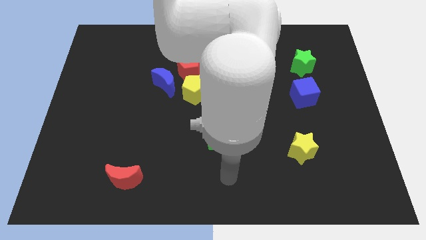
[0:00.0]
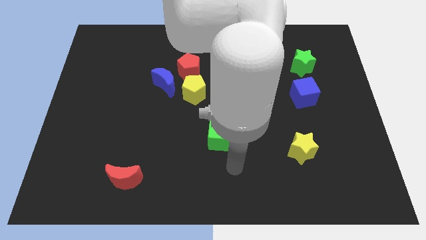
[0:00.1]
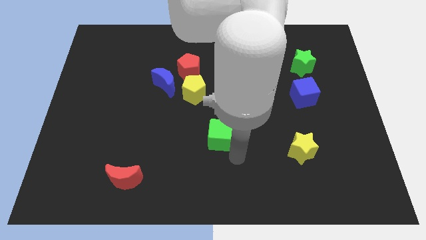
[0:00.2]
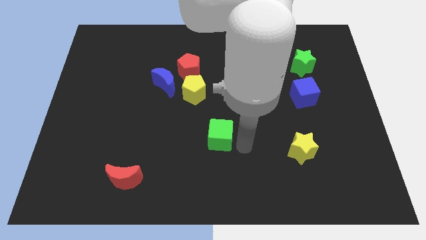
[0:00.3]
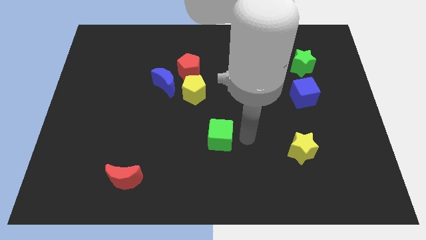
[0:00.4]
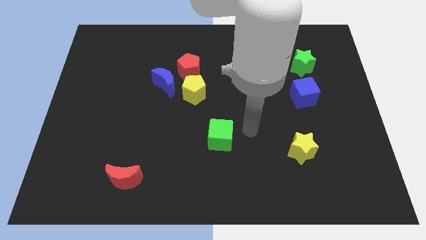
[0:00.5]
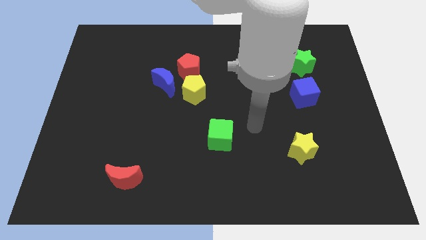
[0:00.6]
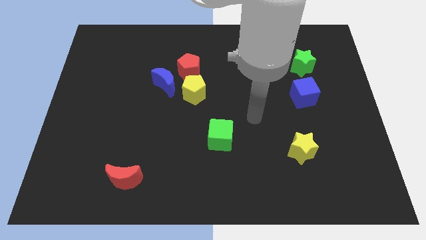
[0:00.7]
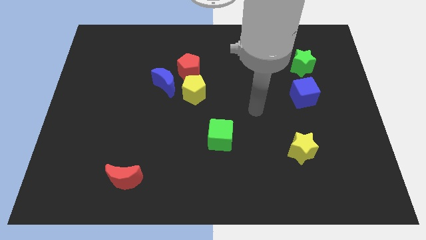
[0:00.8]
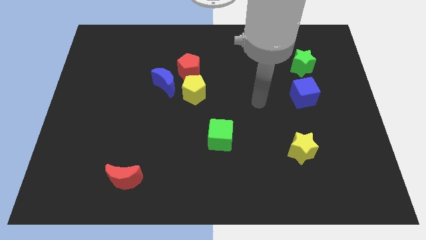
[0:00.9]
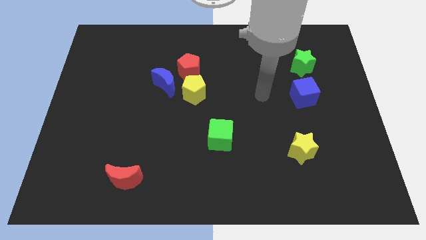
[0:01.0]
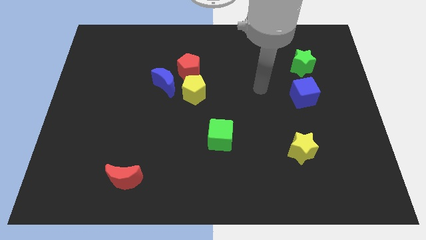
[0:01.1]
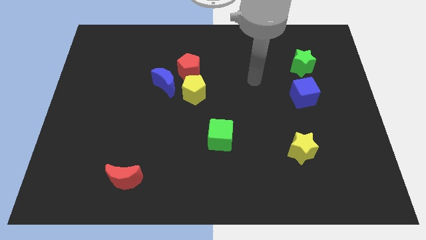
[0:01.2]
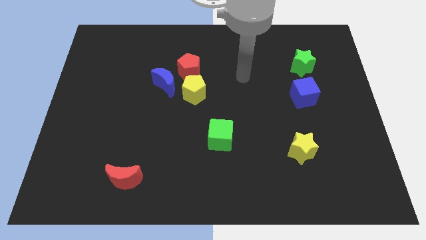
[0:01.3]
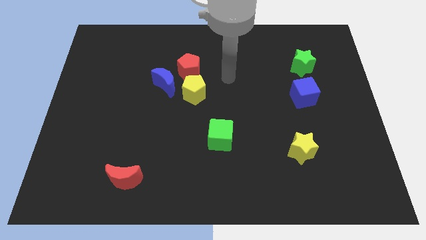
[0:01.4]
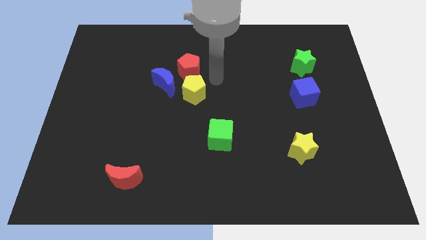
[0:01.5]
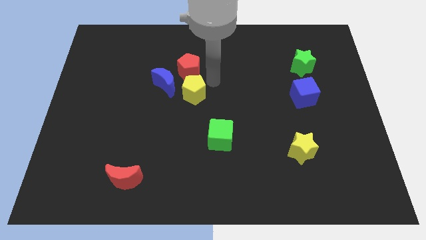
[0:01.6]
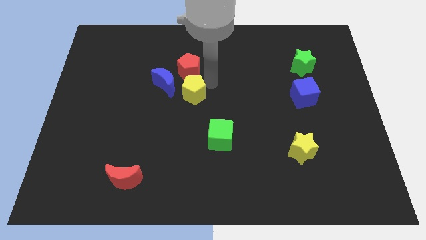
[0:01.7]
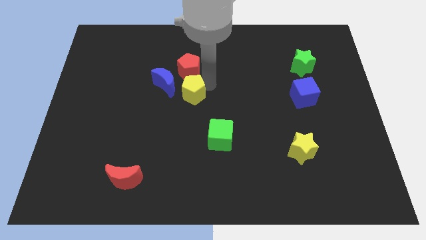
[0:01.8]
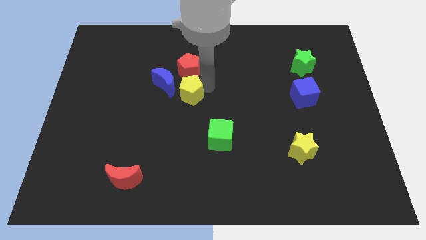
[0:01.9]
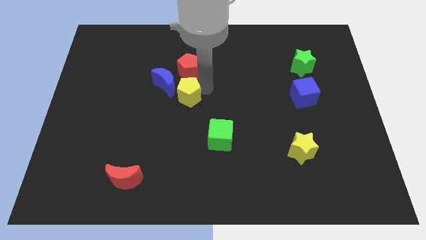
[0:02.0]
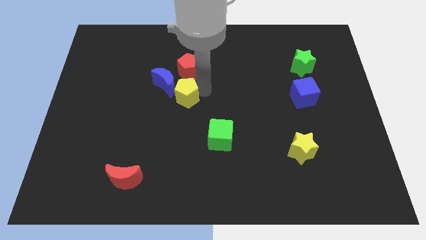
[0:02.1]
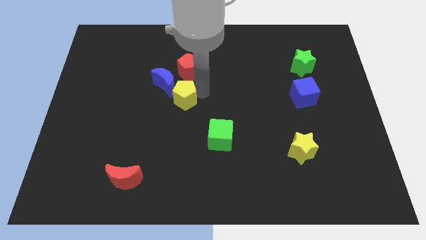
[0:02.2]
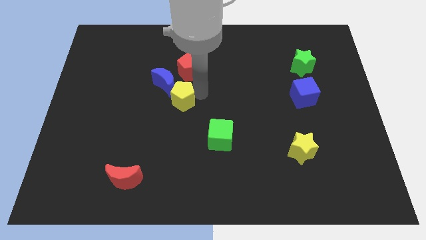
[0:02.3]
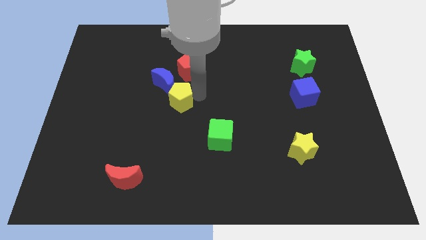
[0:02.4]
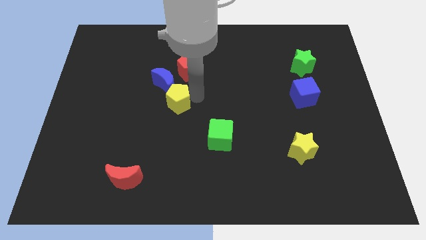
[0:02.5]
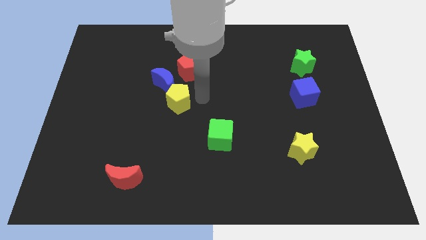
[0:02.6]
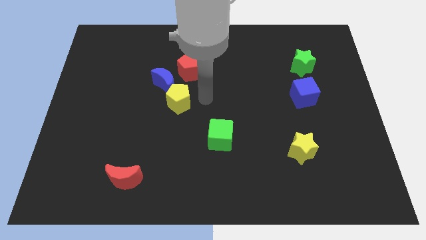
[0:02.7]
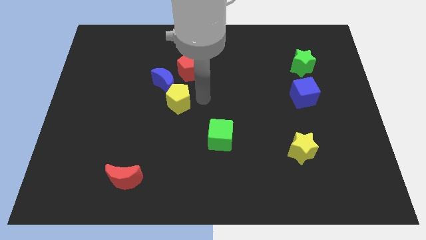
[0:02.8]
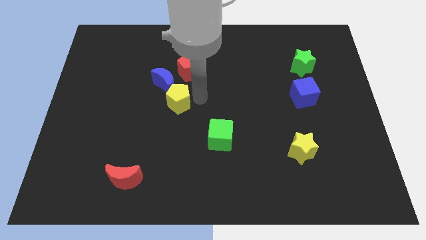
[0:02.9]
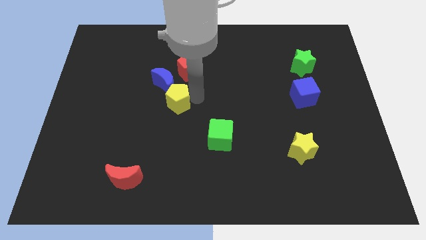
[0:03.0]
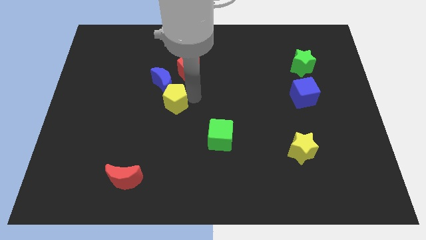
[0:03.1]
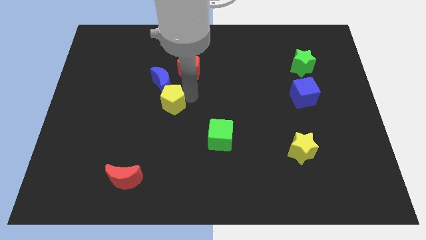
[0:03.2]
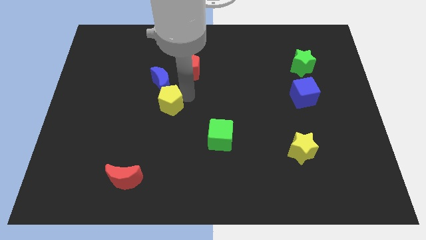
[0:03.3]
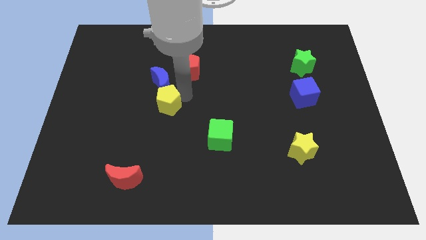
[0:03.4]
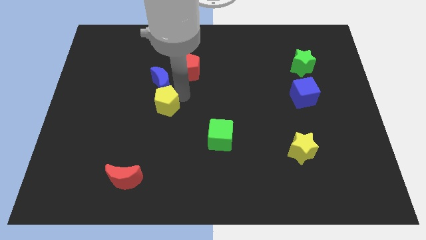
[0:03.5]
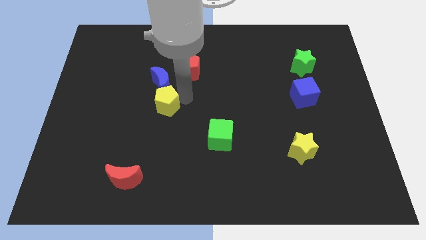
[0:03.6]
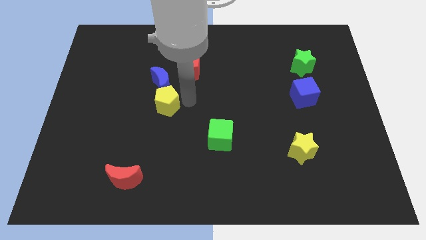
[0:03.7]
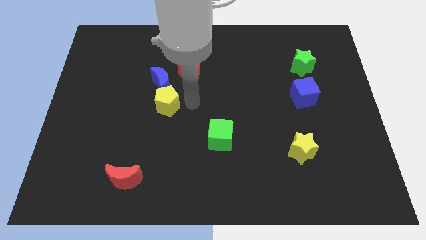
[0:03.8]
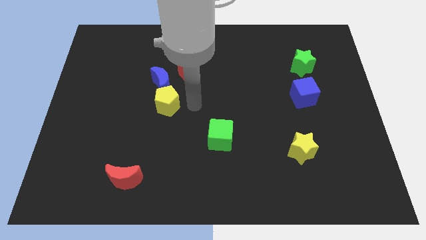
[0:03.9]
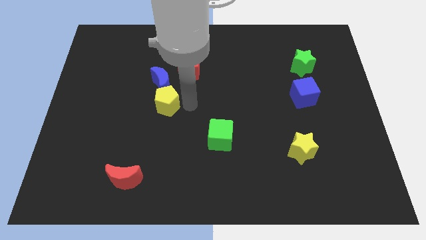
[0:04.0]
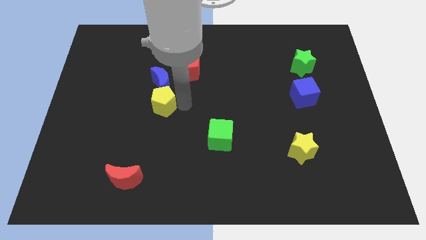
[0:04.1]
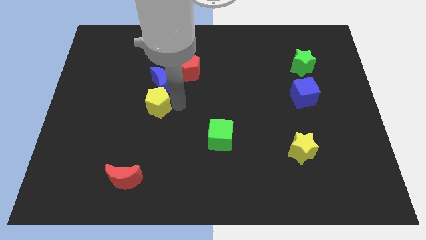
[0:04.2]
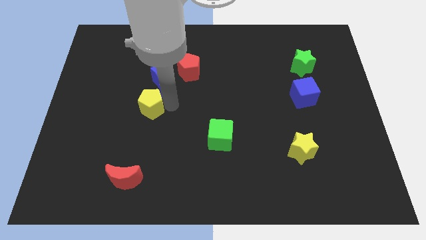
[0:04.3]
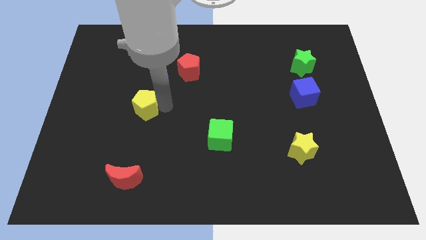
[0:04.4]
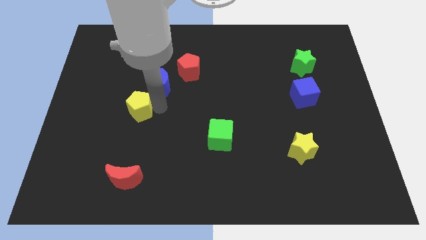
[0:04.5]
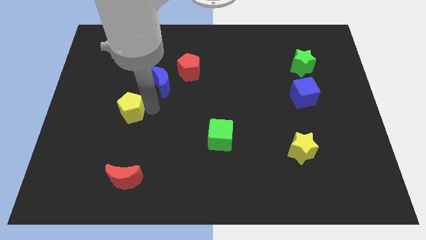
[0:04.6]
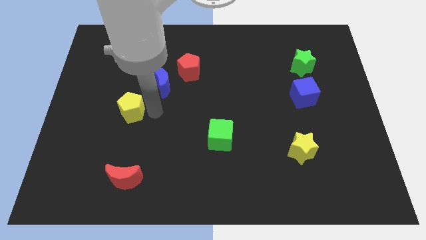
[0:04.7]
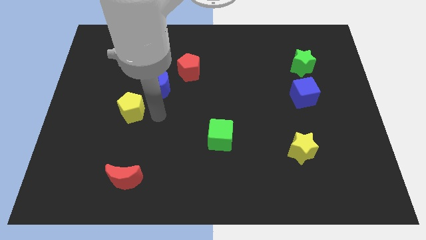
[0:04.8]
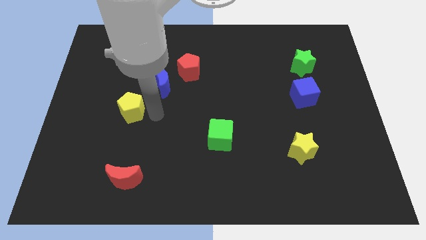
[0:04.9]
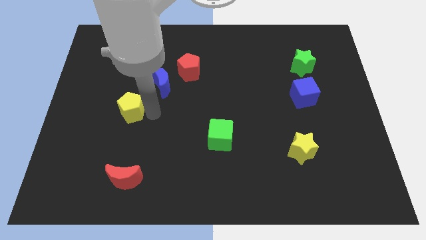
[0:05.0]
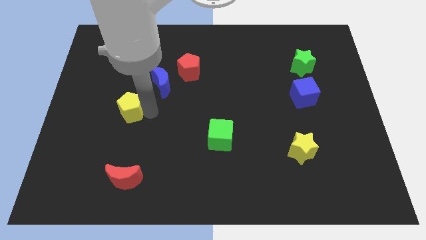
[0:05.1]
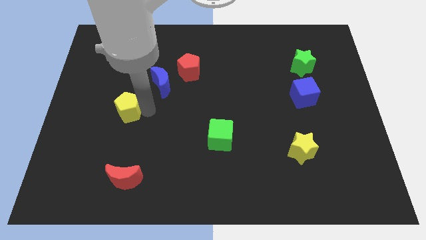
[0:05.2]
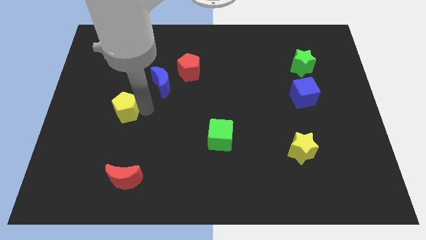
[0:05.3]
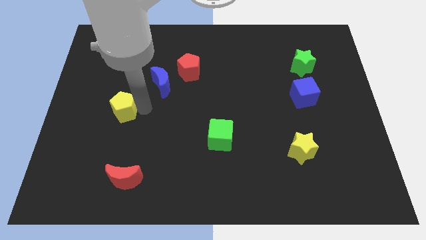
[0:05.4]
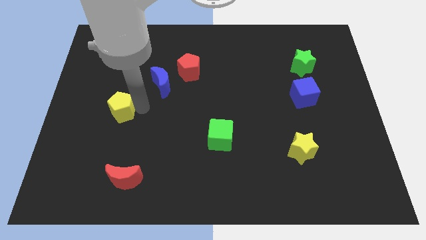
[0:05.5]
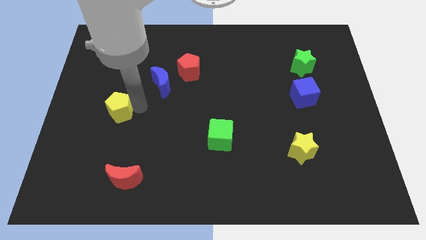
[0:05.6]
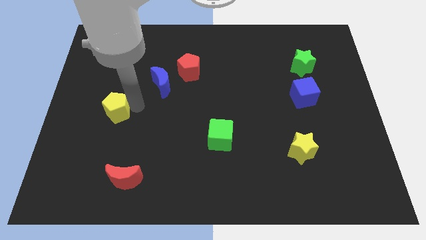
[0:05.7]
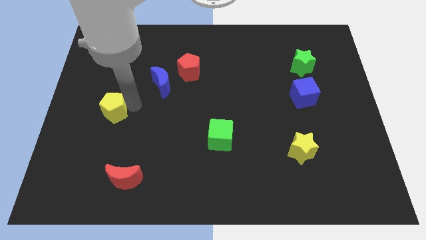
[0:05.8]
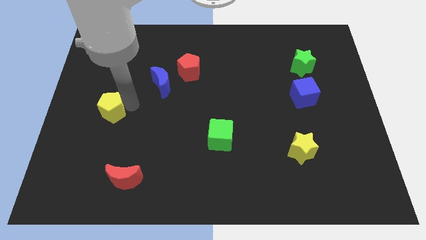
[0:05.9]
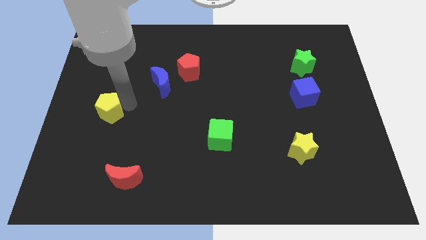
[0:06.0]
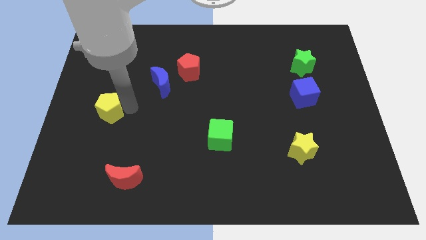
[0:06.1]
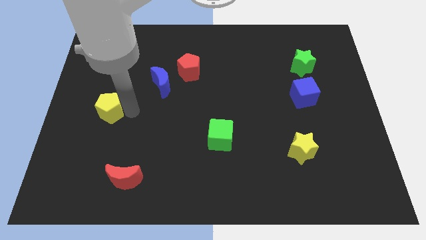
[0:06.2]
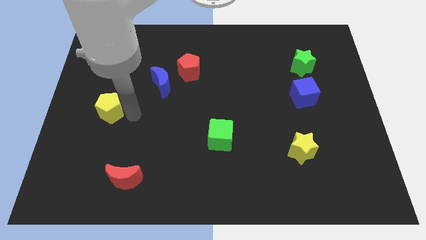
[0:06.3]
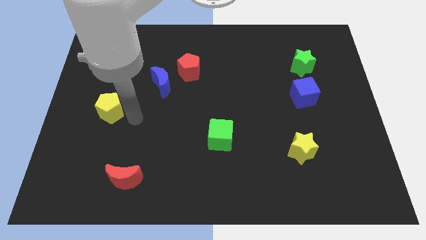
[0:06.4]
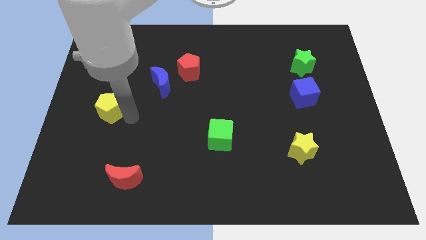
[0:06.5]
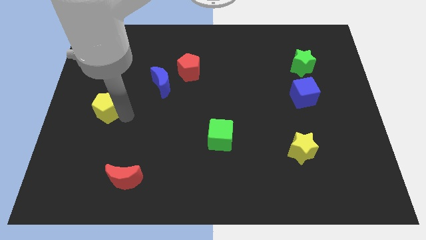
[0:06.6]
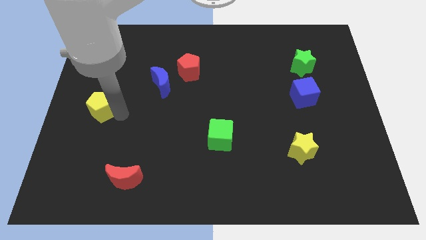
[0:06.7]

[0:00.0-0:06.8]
push the yellow pentagon to the left side of the board
